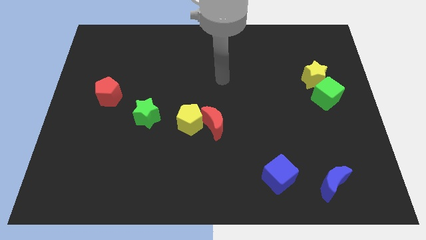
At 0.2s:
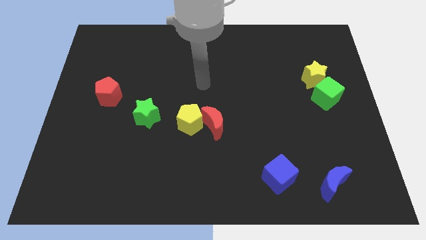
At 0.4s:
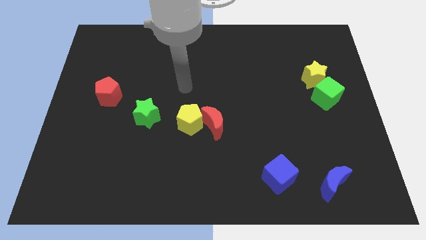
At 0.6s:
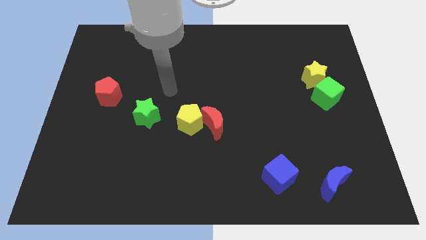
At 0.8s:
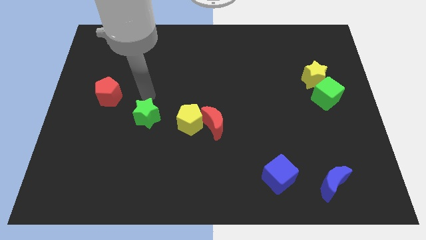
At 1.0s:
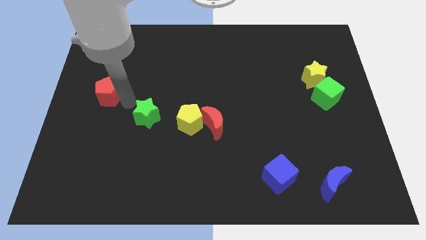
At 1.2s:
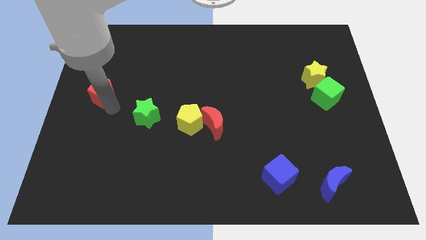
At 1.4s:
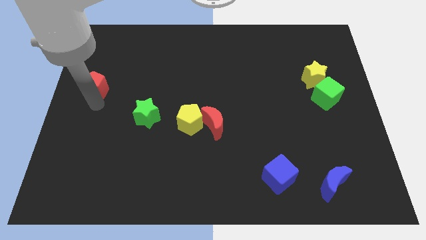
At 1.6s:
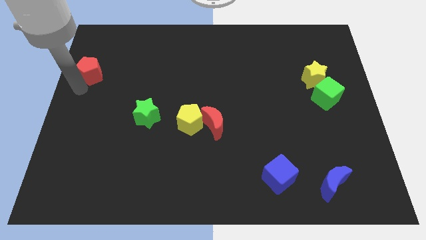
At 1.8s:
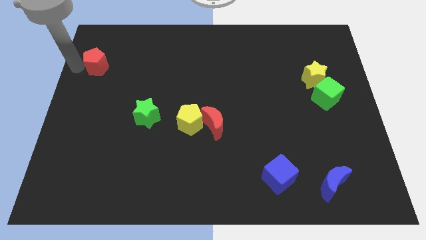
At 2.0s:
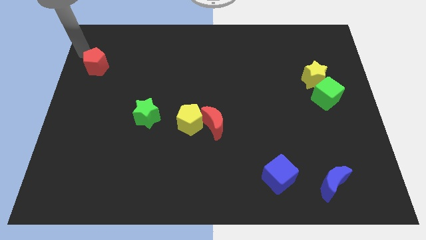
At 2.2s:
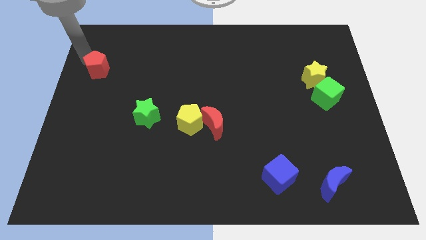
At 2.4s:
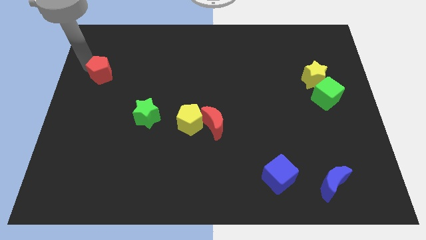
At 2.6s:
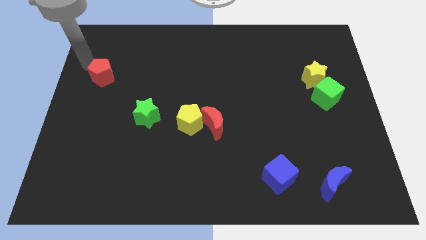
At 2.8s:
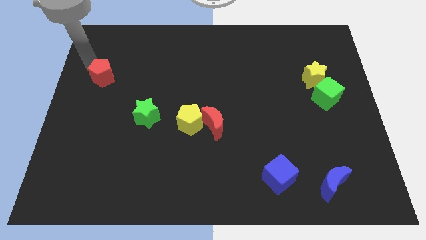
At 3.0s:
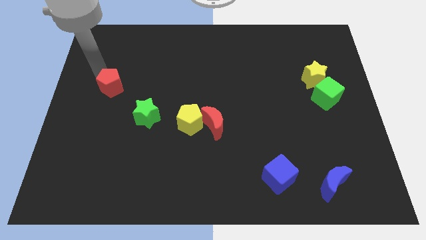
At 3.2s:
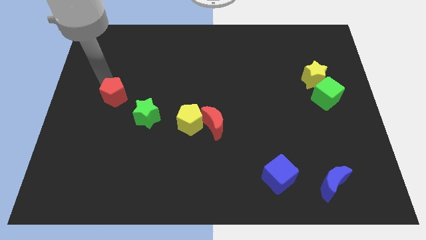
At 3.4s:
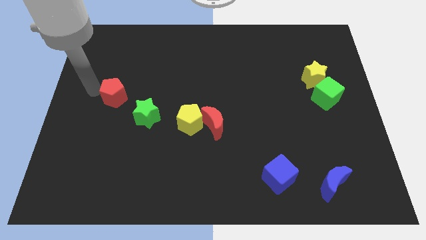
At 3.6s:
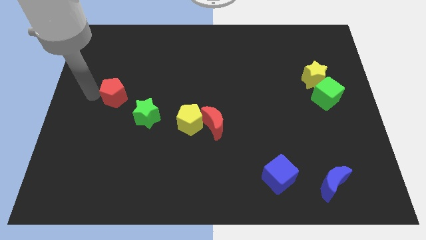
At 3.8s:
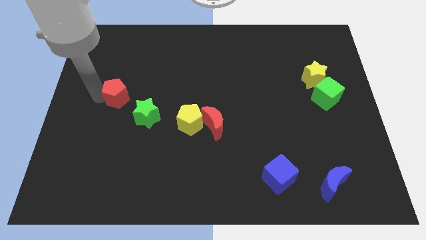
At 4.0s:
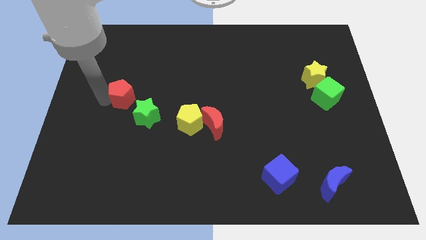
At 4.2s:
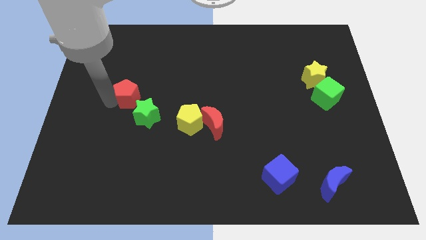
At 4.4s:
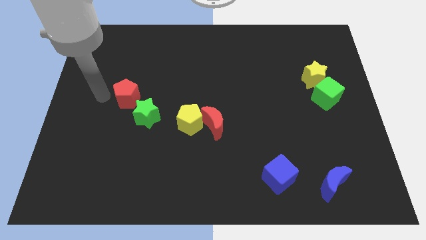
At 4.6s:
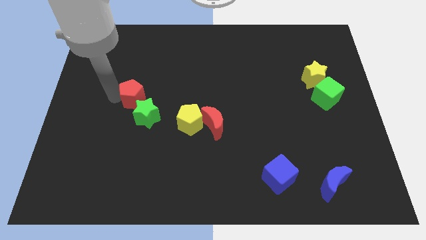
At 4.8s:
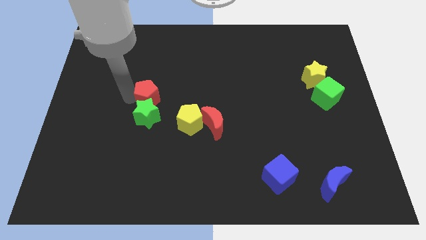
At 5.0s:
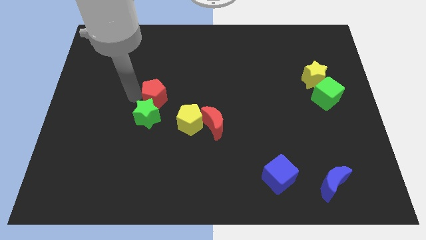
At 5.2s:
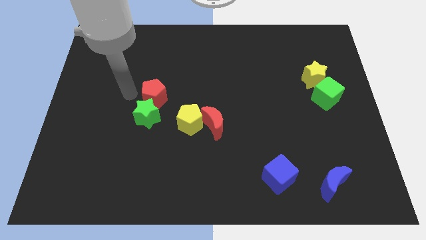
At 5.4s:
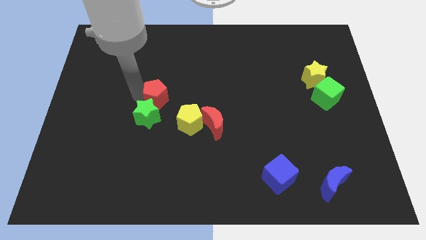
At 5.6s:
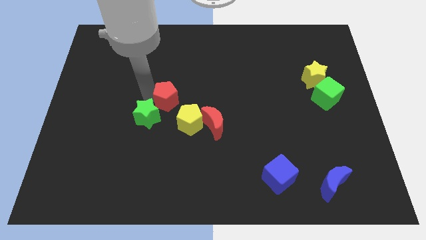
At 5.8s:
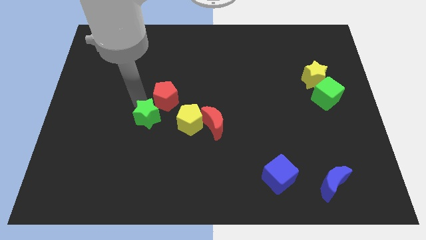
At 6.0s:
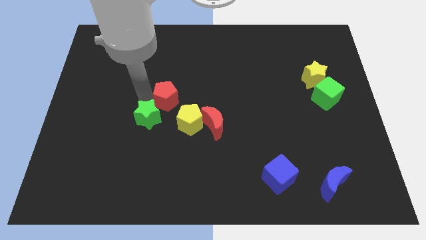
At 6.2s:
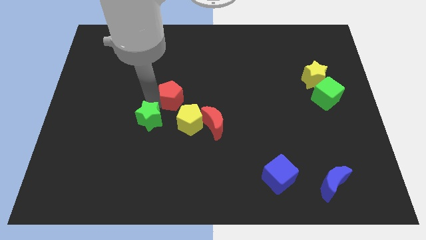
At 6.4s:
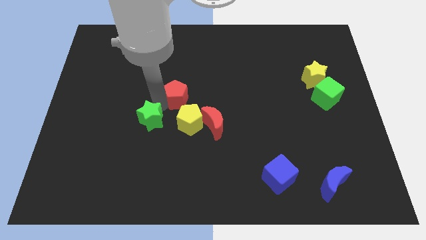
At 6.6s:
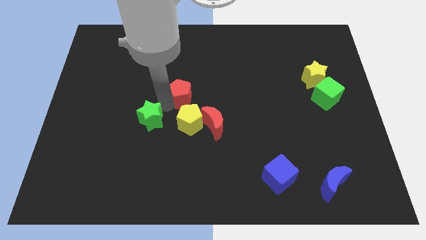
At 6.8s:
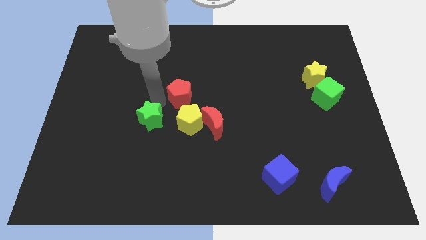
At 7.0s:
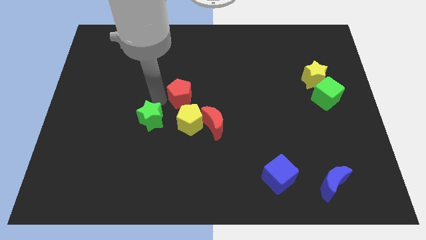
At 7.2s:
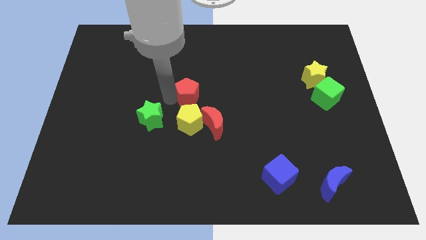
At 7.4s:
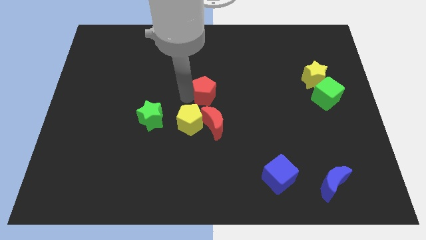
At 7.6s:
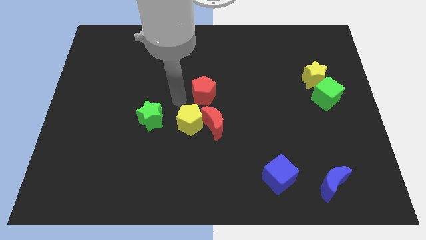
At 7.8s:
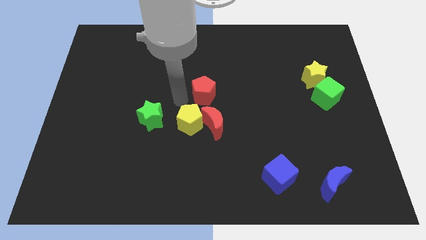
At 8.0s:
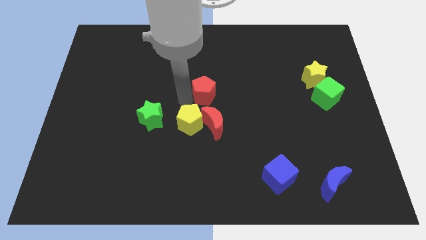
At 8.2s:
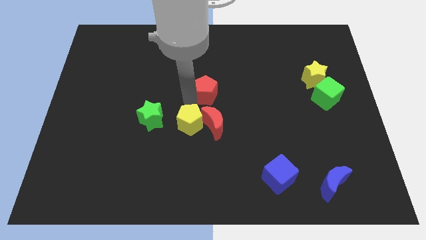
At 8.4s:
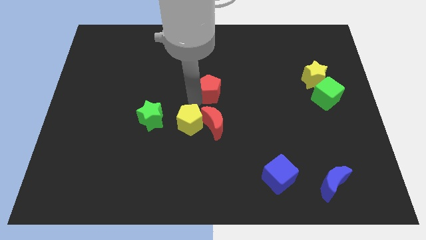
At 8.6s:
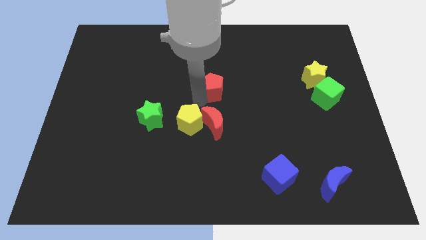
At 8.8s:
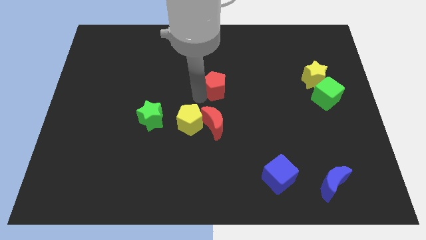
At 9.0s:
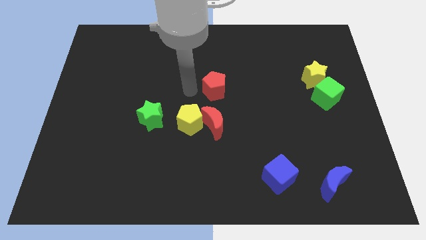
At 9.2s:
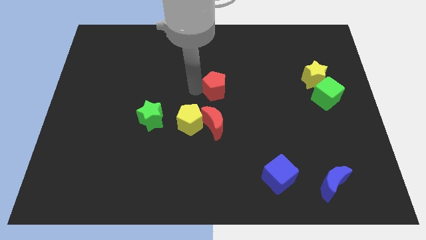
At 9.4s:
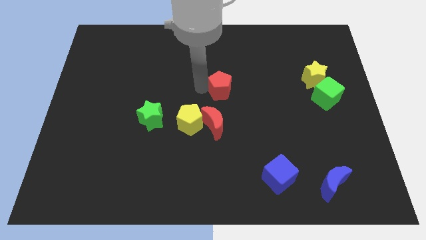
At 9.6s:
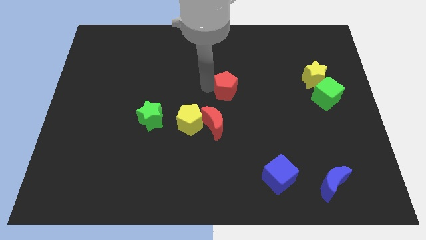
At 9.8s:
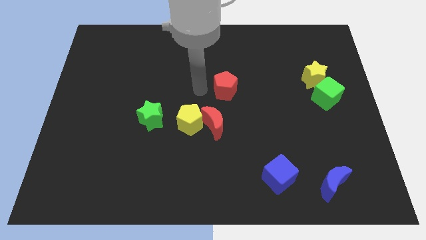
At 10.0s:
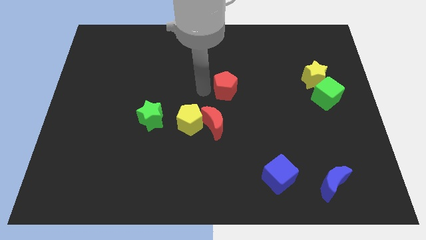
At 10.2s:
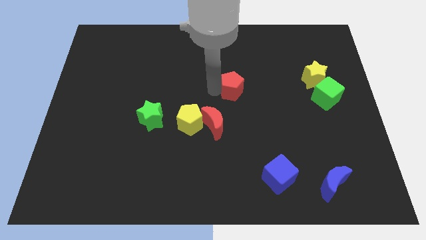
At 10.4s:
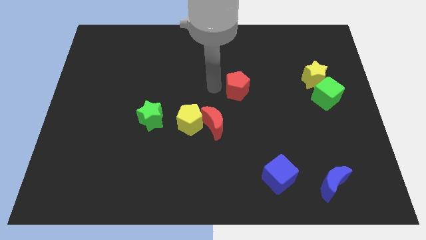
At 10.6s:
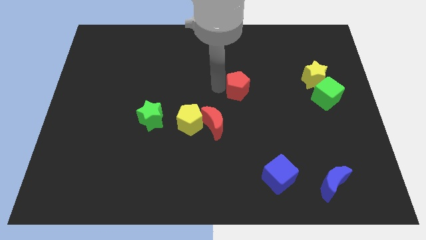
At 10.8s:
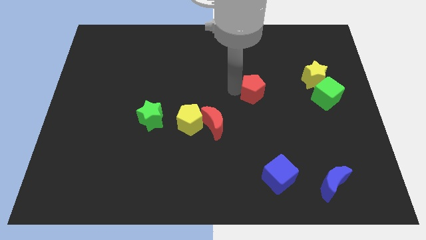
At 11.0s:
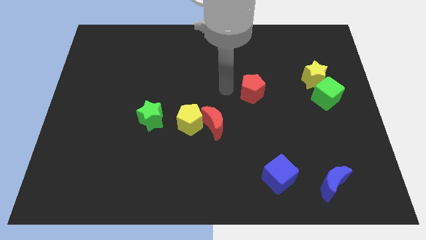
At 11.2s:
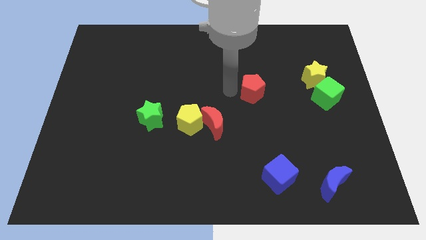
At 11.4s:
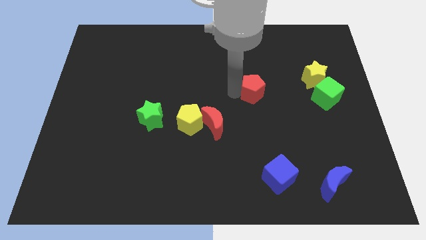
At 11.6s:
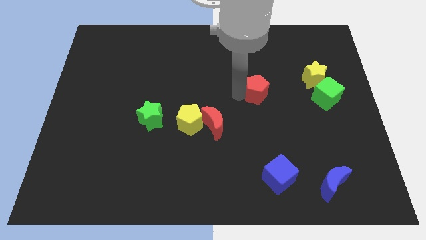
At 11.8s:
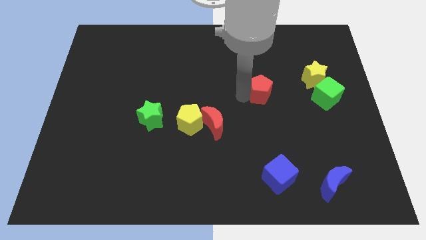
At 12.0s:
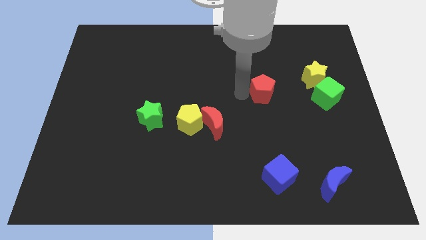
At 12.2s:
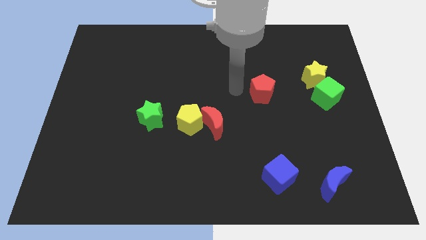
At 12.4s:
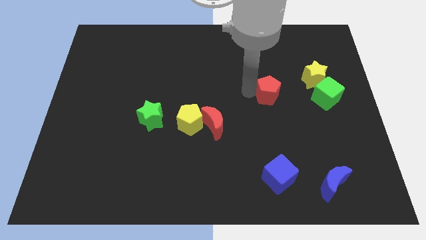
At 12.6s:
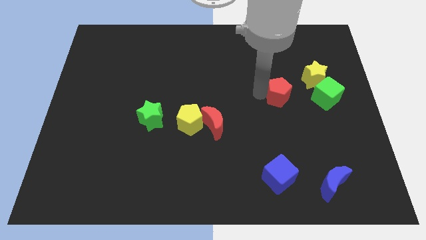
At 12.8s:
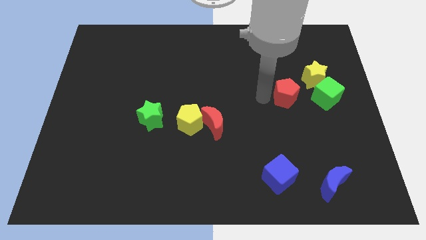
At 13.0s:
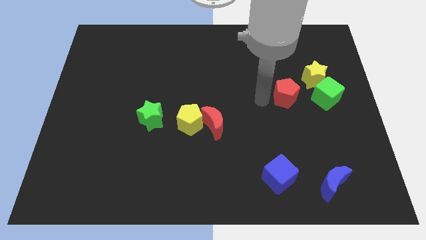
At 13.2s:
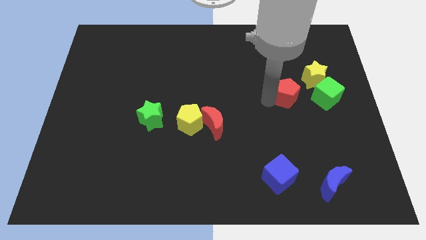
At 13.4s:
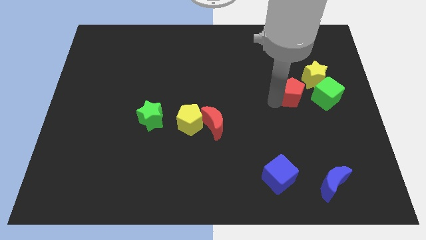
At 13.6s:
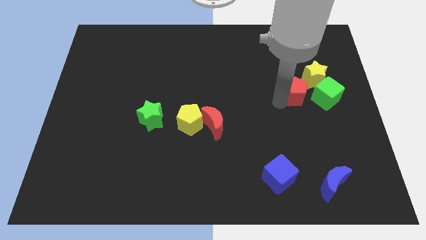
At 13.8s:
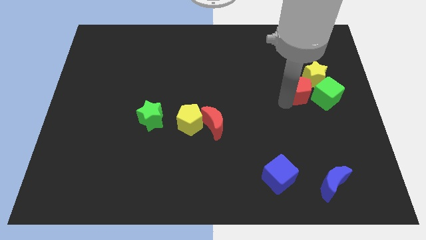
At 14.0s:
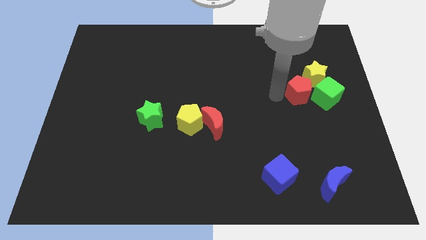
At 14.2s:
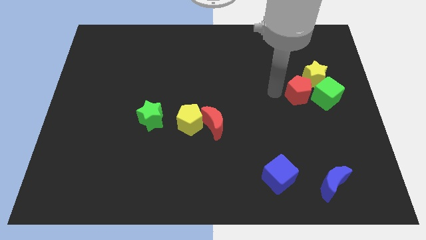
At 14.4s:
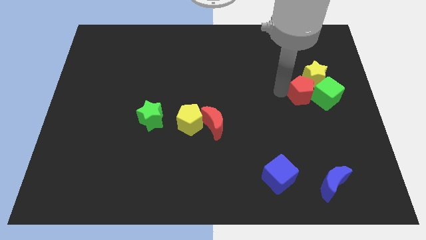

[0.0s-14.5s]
move the red pentagon to the green cube
